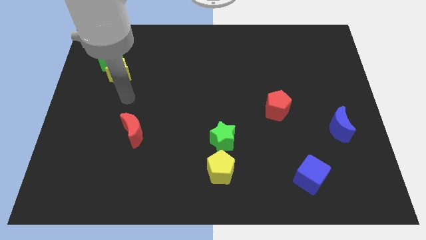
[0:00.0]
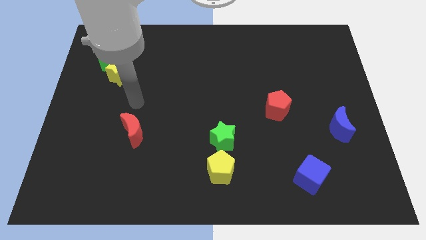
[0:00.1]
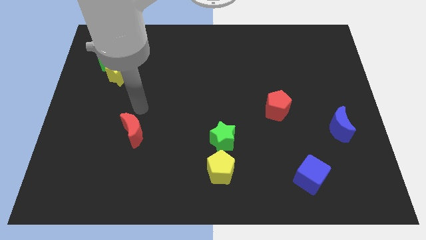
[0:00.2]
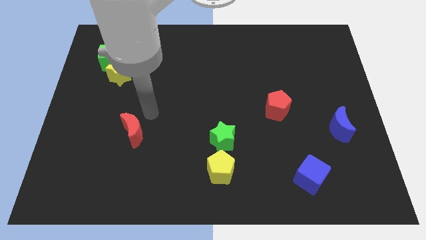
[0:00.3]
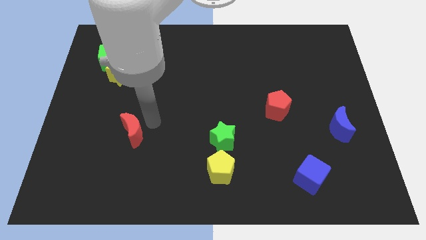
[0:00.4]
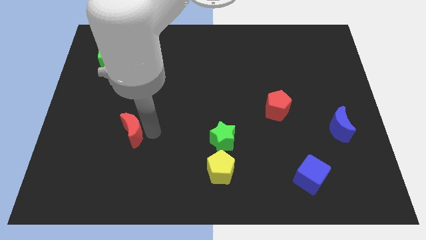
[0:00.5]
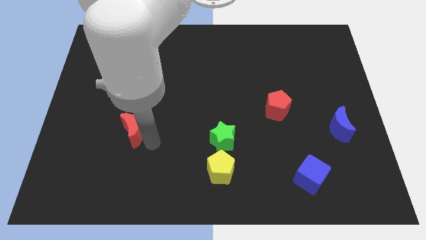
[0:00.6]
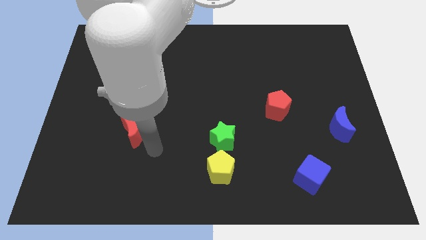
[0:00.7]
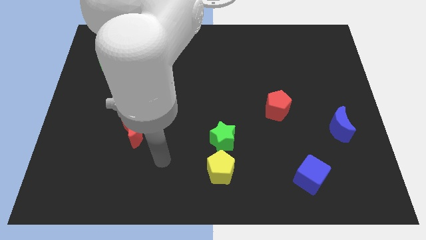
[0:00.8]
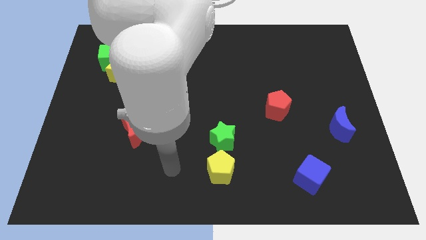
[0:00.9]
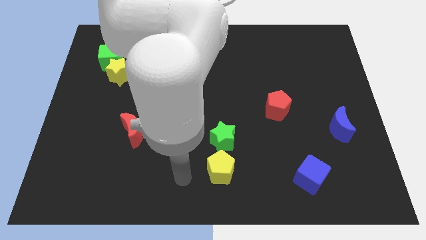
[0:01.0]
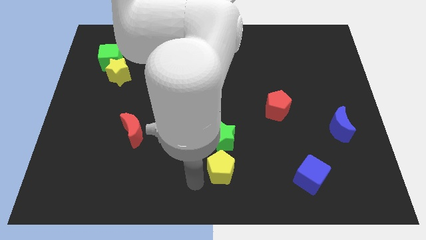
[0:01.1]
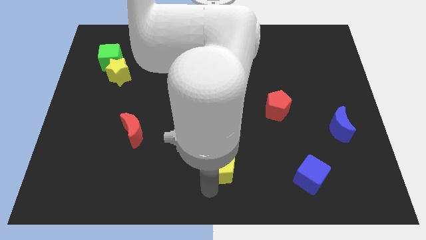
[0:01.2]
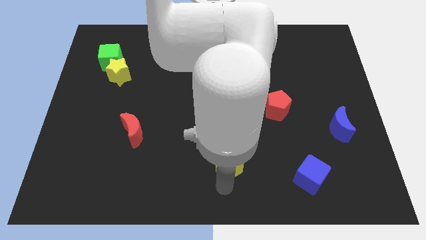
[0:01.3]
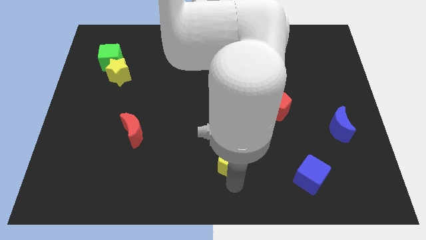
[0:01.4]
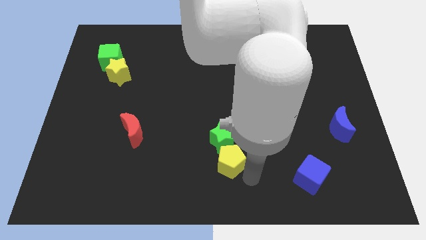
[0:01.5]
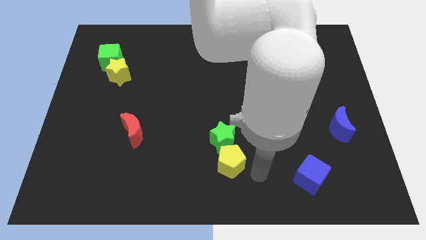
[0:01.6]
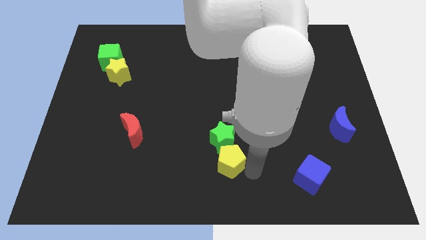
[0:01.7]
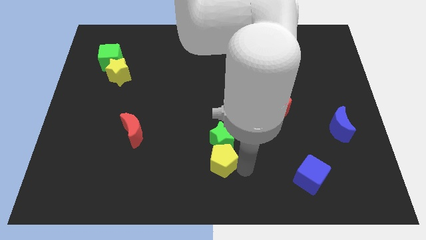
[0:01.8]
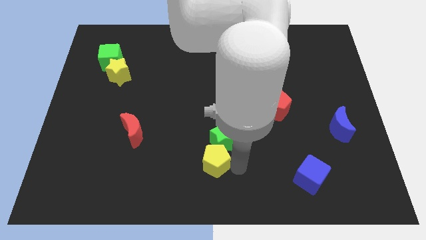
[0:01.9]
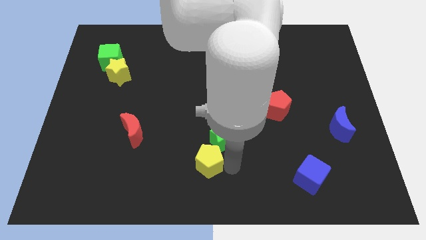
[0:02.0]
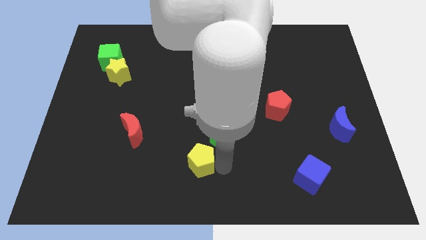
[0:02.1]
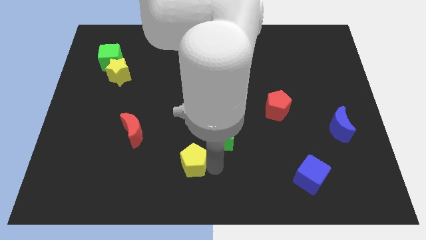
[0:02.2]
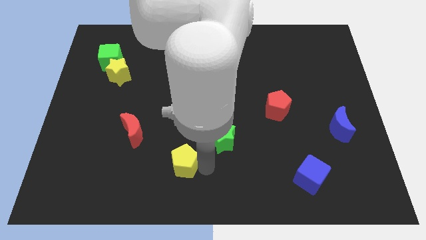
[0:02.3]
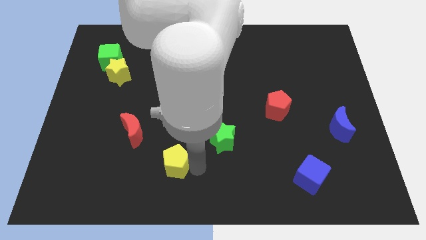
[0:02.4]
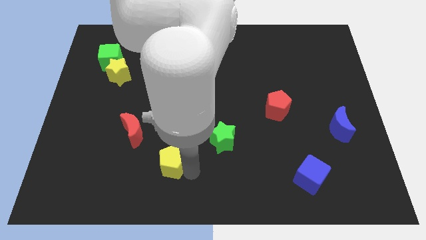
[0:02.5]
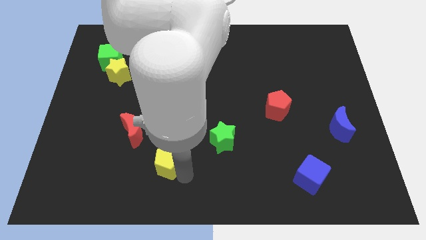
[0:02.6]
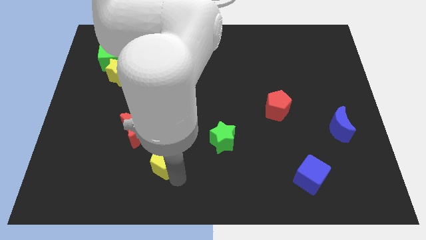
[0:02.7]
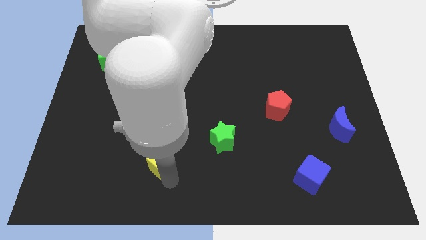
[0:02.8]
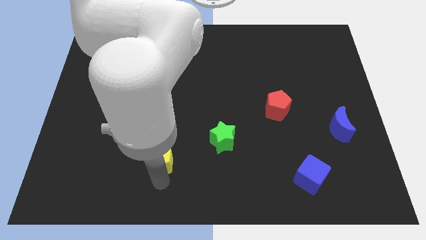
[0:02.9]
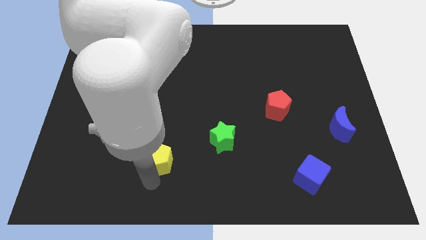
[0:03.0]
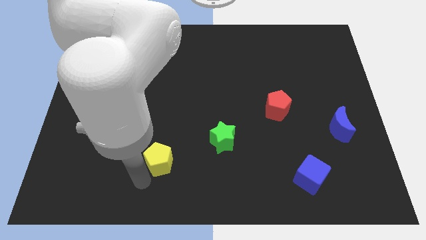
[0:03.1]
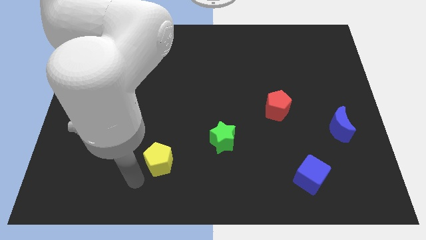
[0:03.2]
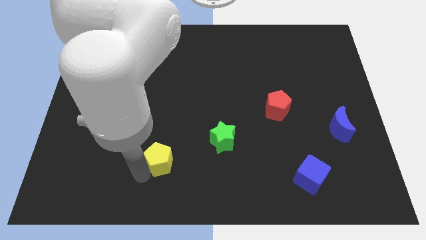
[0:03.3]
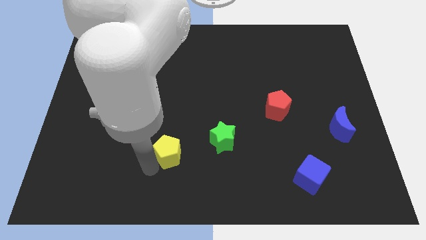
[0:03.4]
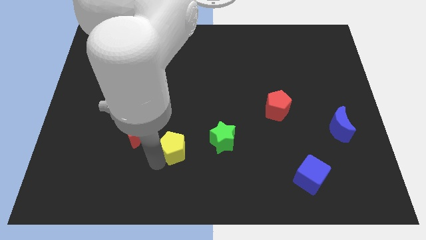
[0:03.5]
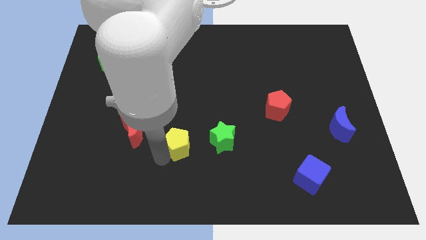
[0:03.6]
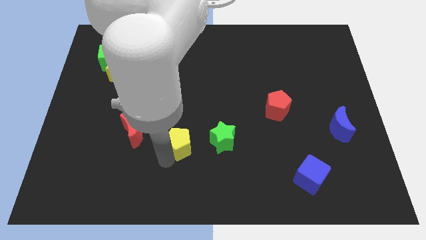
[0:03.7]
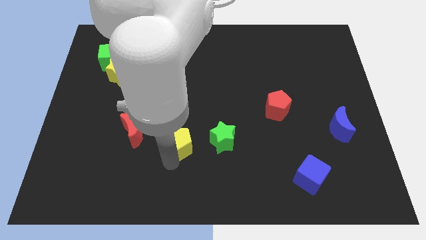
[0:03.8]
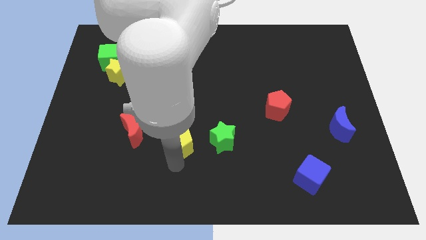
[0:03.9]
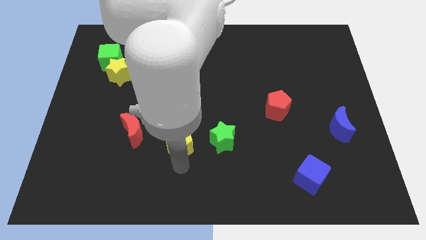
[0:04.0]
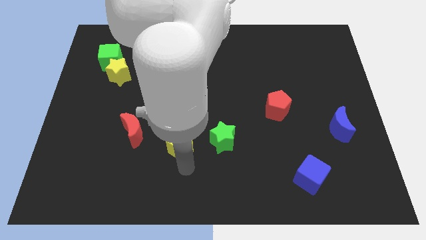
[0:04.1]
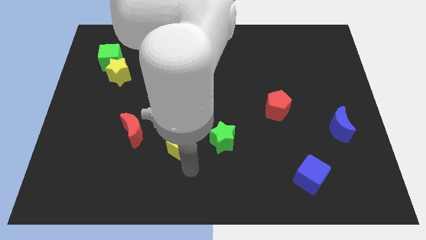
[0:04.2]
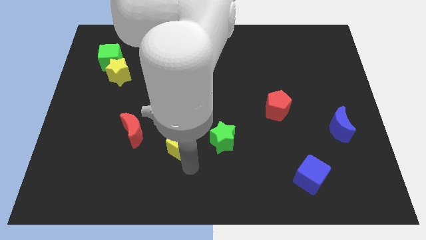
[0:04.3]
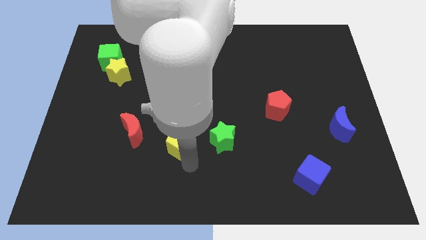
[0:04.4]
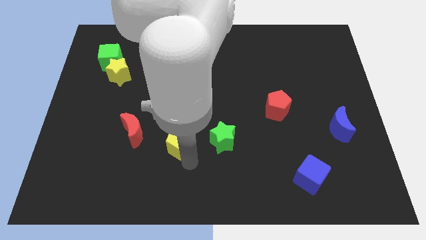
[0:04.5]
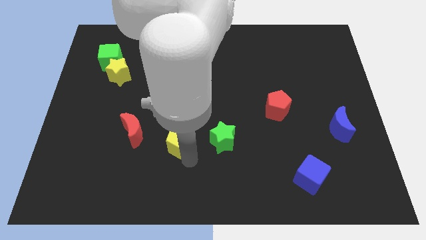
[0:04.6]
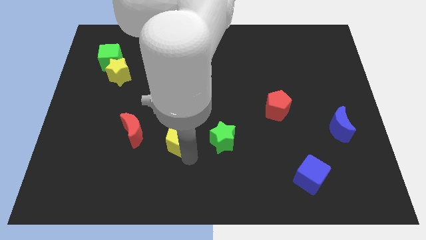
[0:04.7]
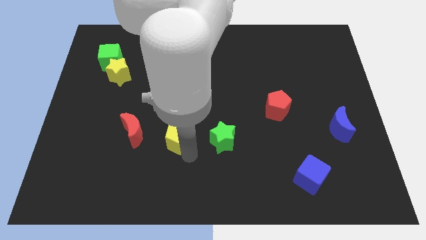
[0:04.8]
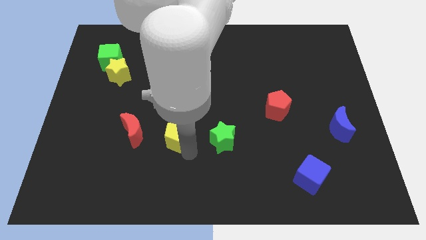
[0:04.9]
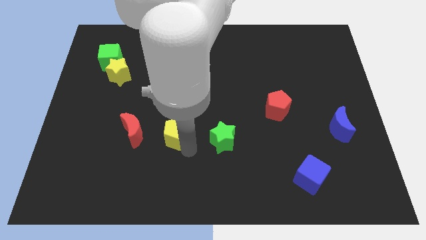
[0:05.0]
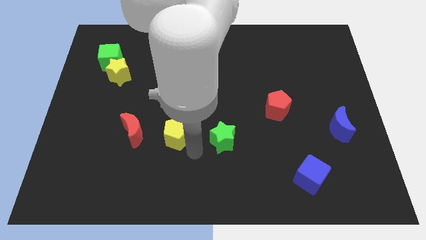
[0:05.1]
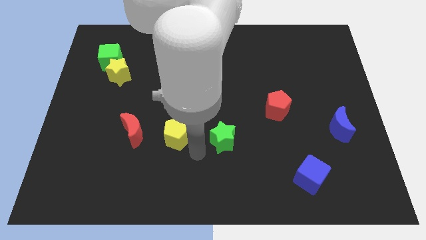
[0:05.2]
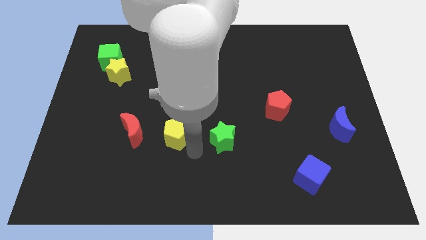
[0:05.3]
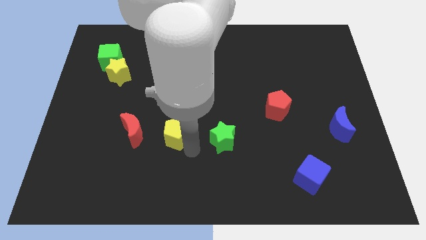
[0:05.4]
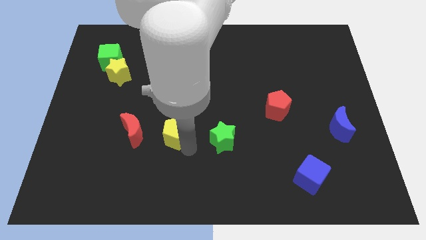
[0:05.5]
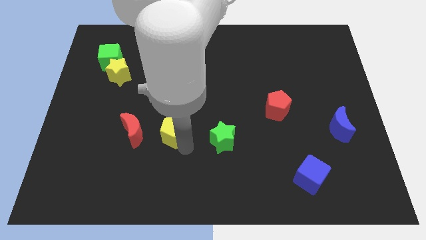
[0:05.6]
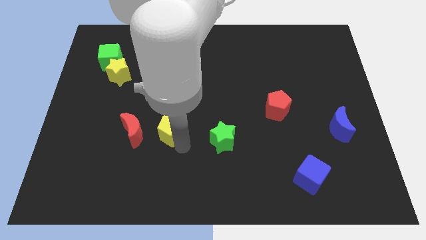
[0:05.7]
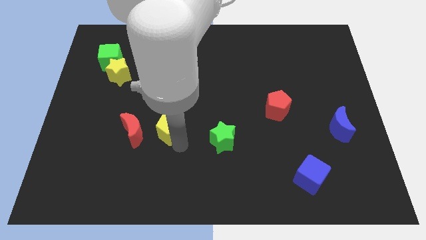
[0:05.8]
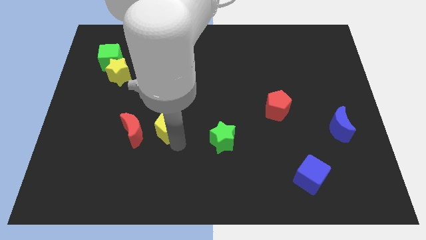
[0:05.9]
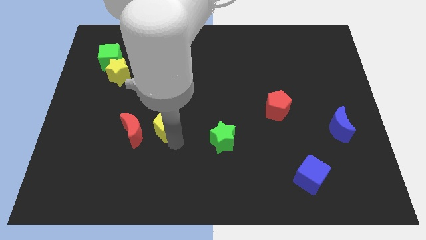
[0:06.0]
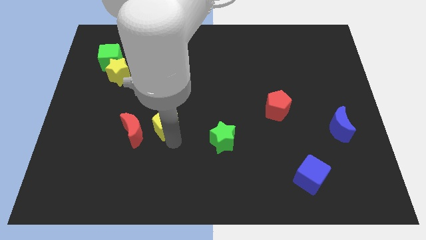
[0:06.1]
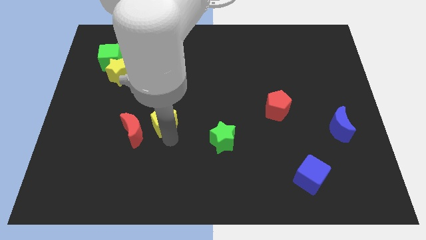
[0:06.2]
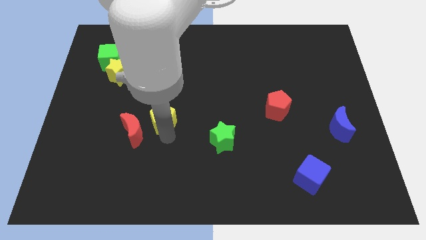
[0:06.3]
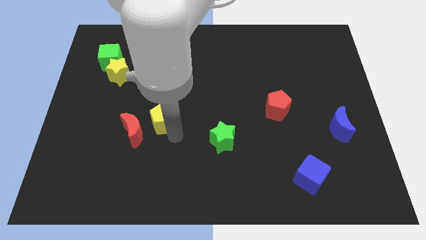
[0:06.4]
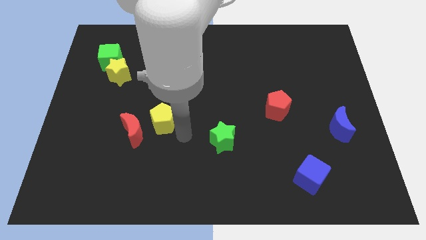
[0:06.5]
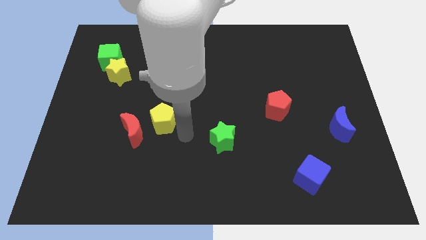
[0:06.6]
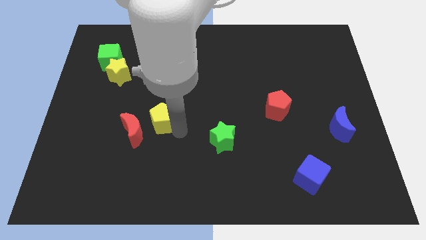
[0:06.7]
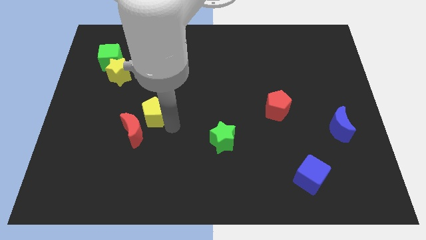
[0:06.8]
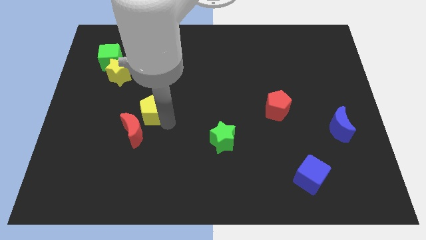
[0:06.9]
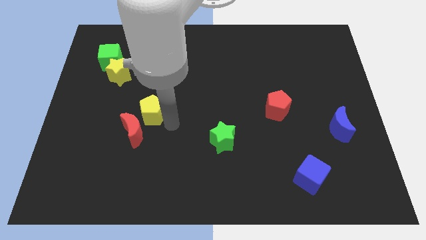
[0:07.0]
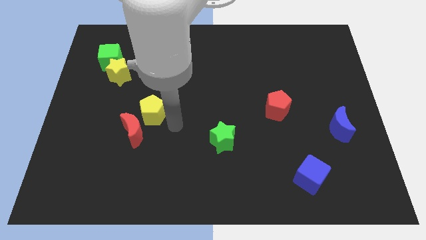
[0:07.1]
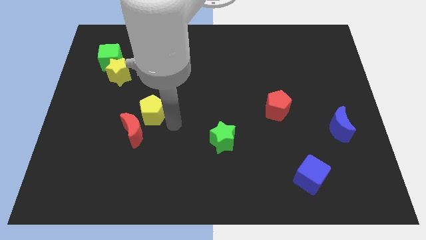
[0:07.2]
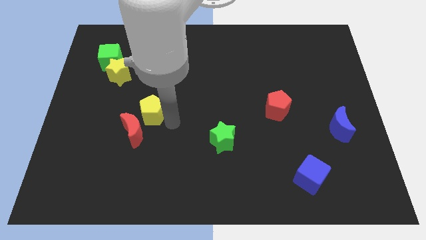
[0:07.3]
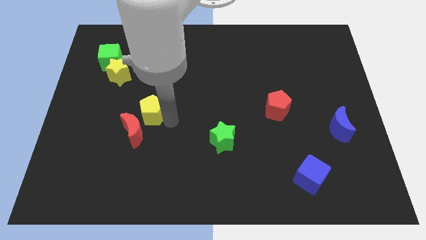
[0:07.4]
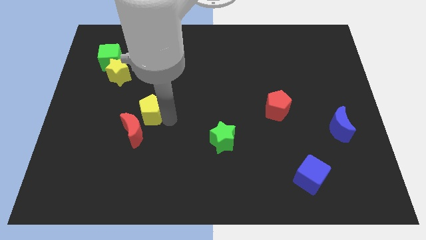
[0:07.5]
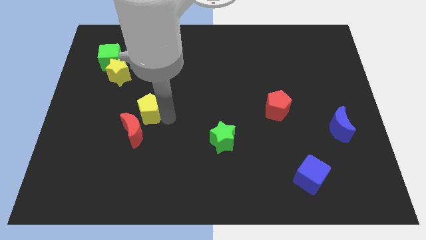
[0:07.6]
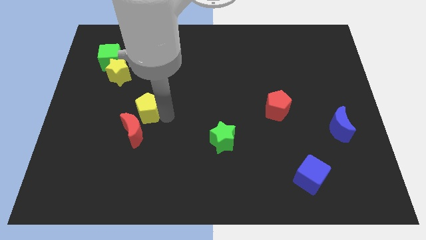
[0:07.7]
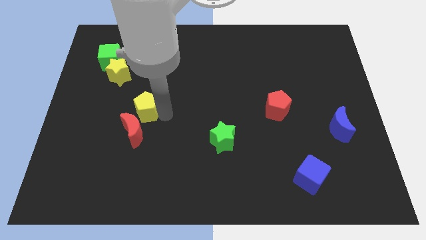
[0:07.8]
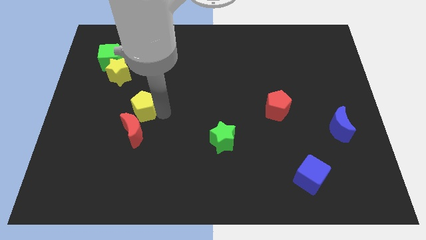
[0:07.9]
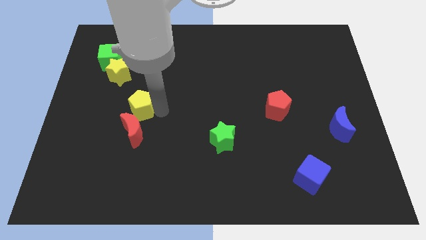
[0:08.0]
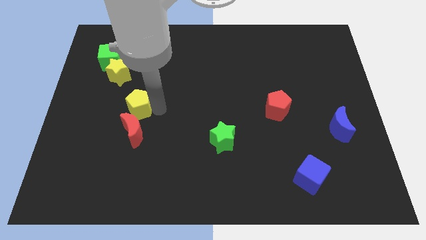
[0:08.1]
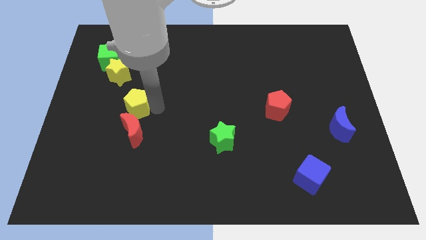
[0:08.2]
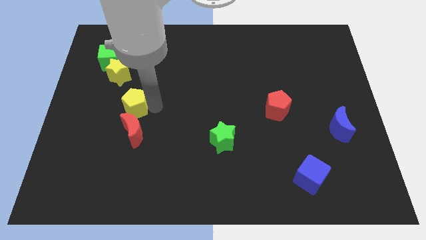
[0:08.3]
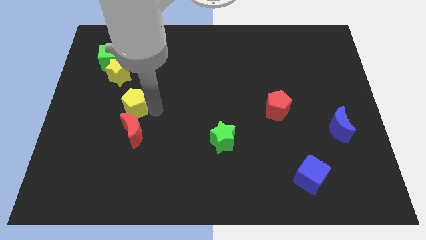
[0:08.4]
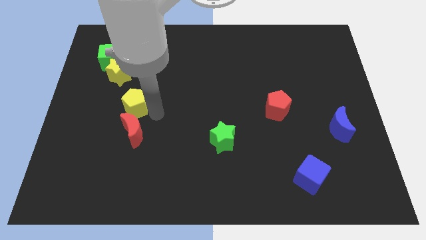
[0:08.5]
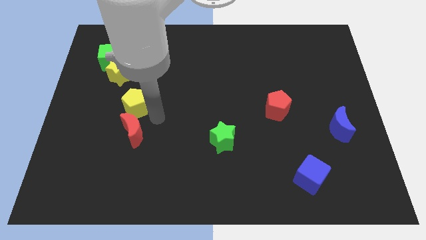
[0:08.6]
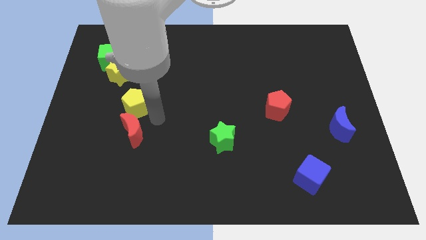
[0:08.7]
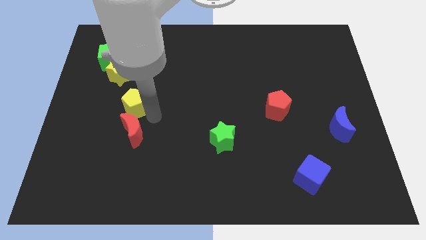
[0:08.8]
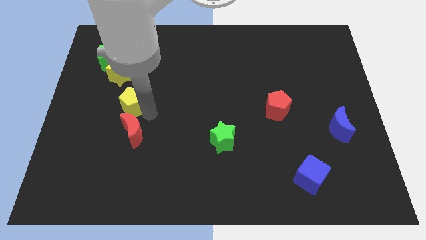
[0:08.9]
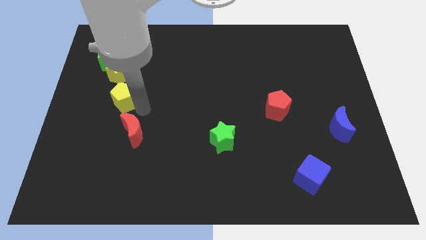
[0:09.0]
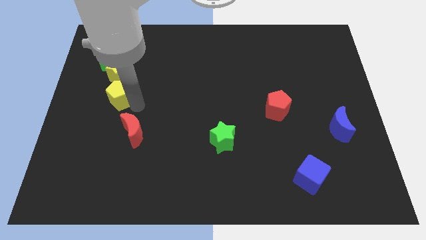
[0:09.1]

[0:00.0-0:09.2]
push the yellow pentagon below the green cube
